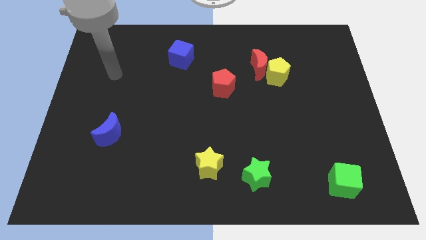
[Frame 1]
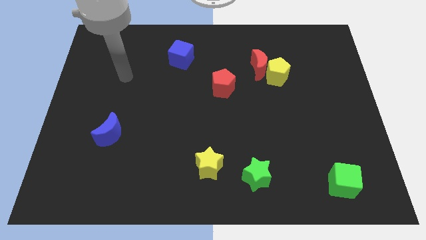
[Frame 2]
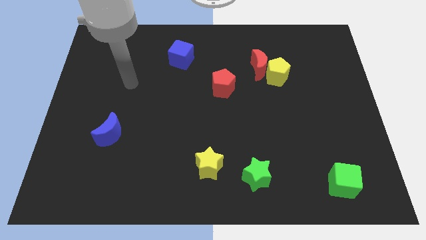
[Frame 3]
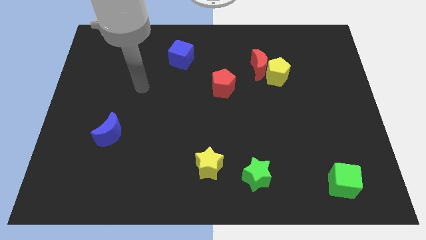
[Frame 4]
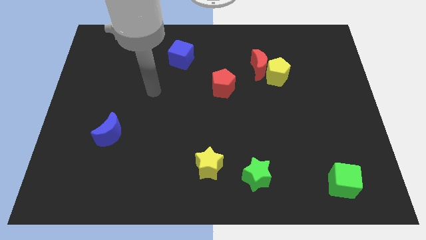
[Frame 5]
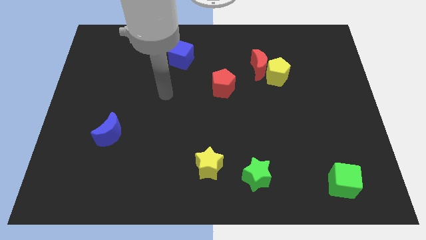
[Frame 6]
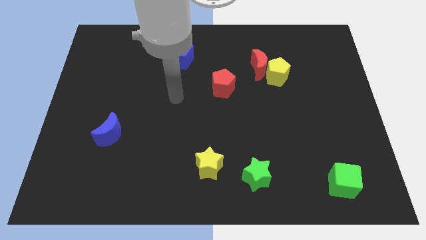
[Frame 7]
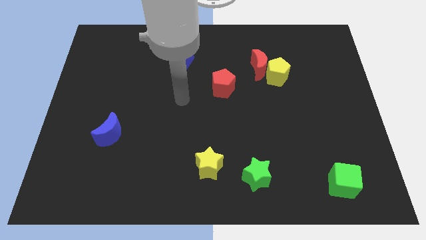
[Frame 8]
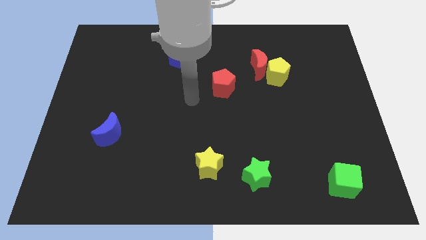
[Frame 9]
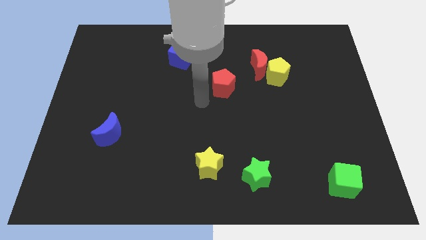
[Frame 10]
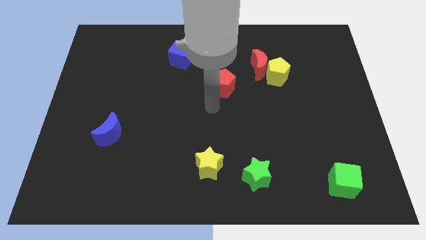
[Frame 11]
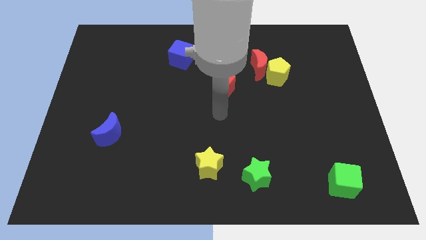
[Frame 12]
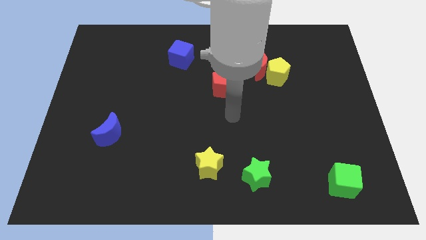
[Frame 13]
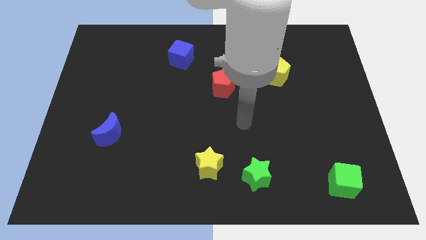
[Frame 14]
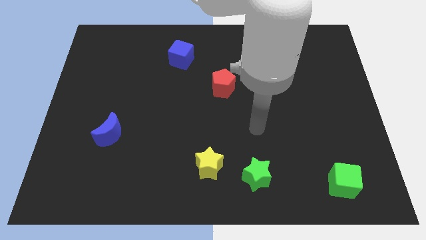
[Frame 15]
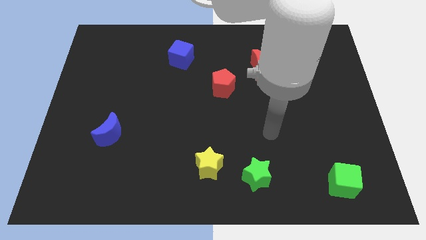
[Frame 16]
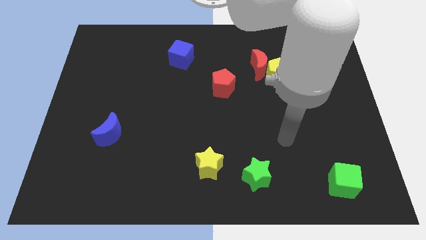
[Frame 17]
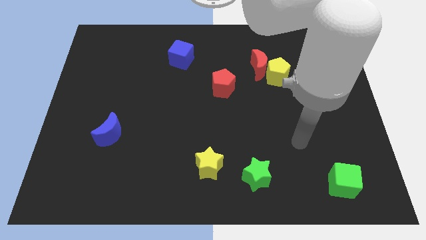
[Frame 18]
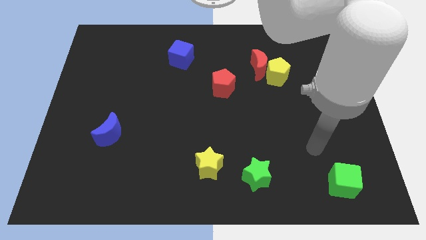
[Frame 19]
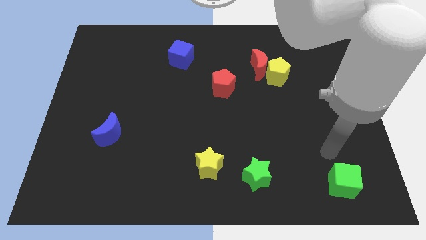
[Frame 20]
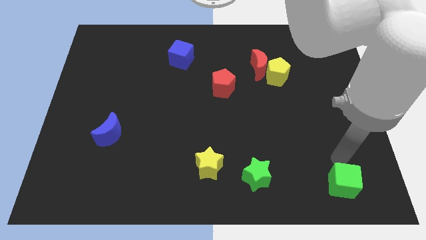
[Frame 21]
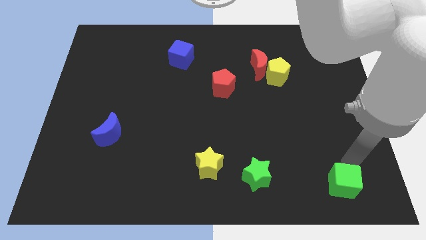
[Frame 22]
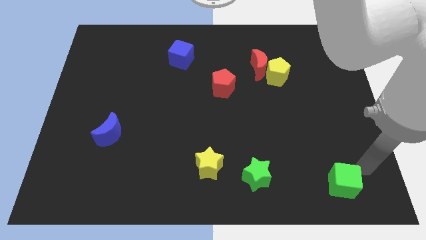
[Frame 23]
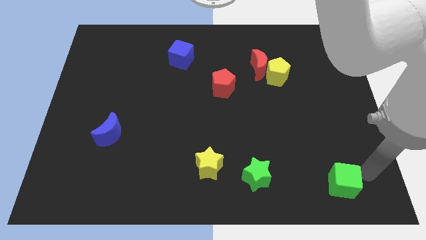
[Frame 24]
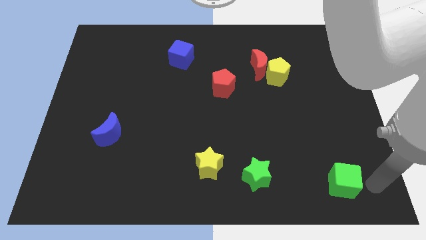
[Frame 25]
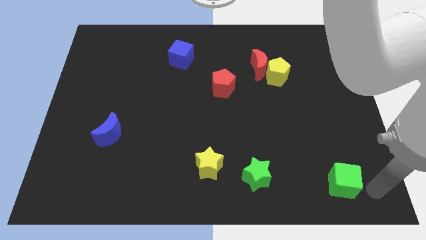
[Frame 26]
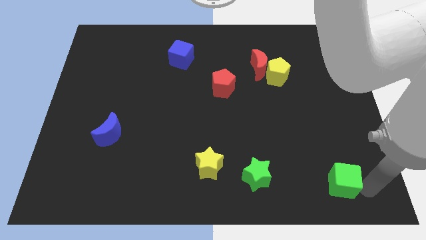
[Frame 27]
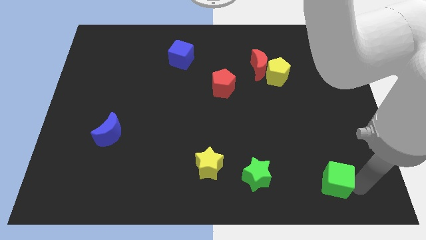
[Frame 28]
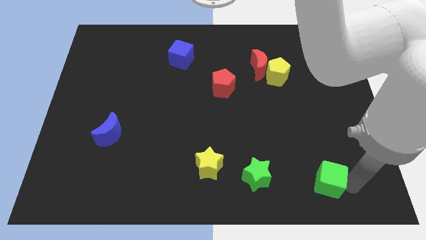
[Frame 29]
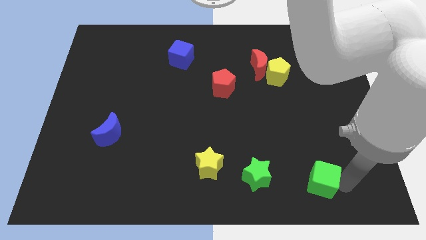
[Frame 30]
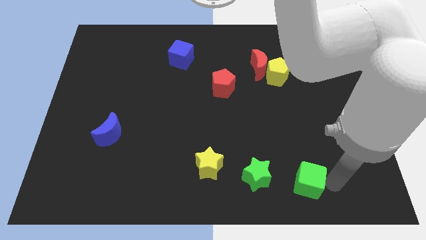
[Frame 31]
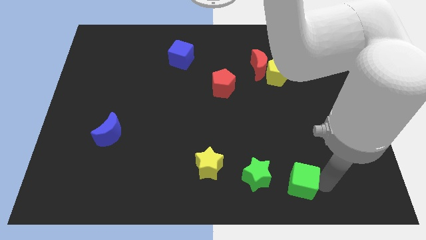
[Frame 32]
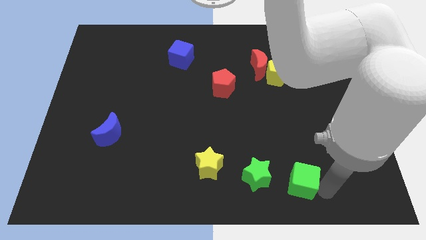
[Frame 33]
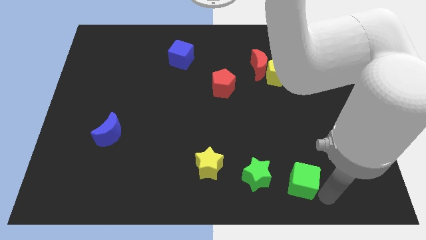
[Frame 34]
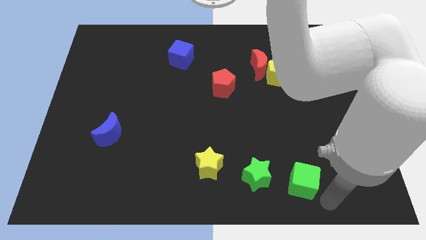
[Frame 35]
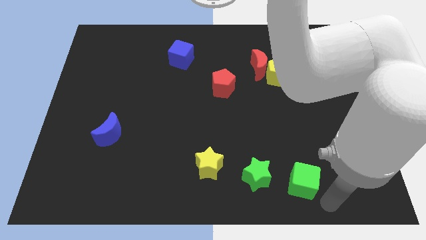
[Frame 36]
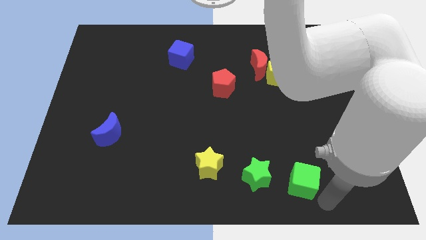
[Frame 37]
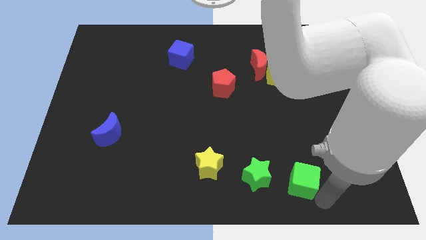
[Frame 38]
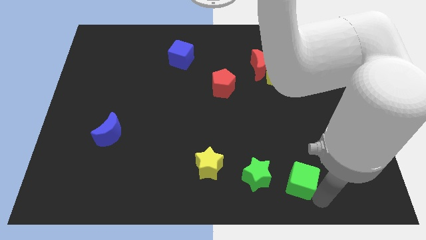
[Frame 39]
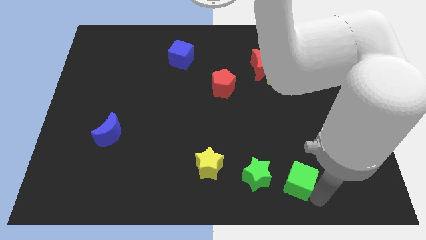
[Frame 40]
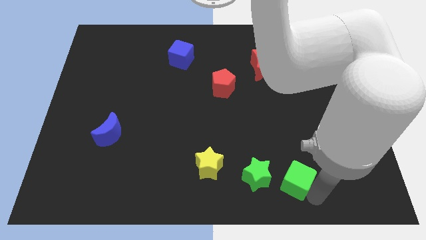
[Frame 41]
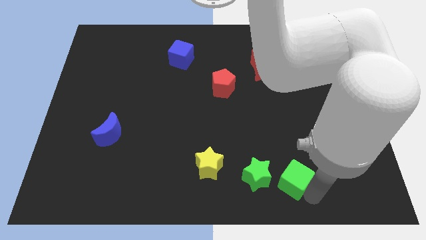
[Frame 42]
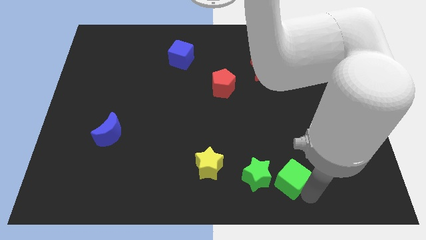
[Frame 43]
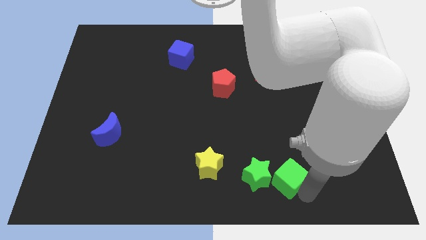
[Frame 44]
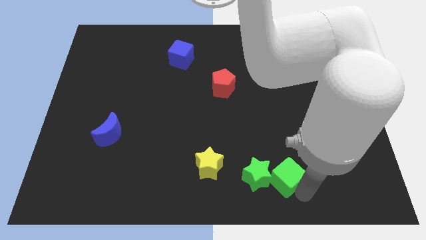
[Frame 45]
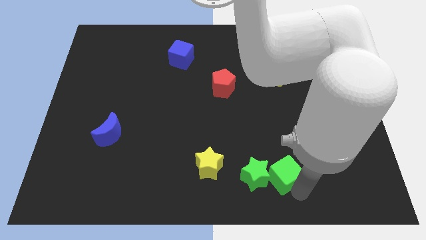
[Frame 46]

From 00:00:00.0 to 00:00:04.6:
move the green cube to the right side of the yellow star

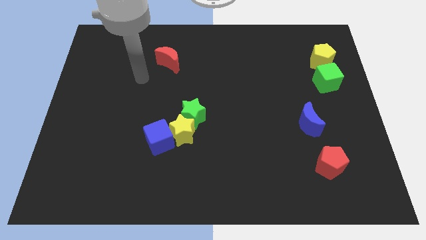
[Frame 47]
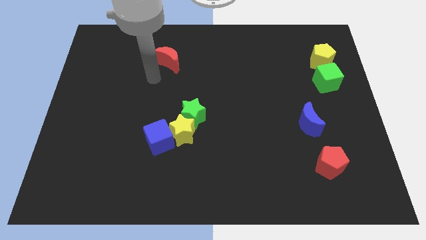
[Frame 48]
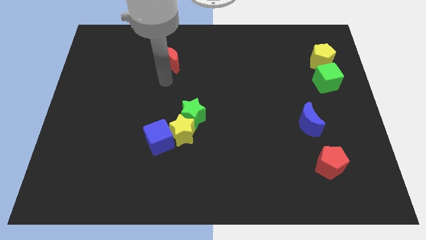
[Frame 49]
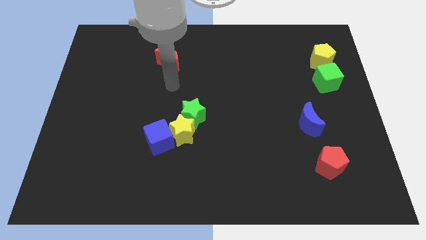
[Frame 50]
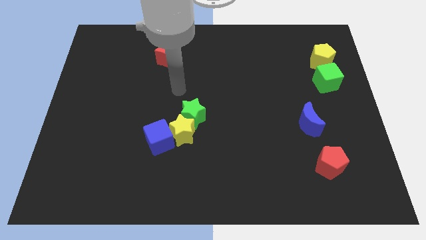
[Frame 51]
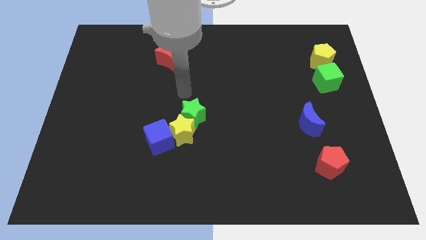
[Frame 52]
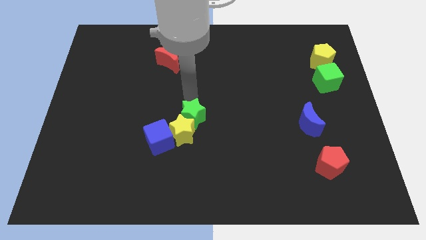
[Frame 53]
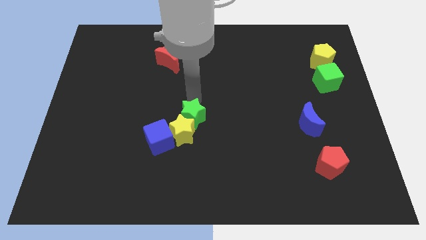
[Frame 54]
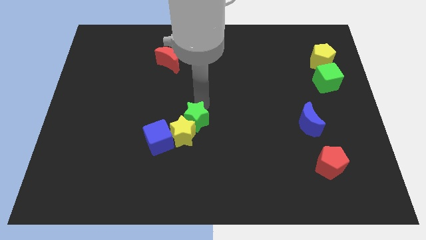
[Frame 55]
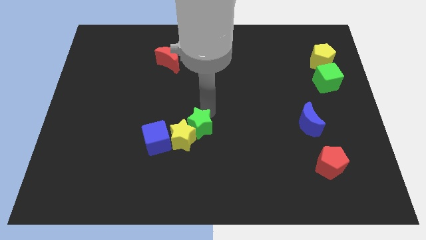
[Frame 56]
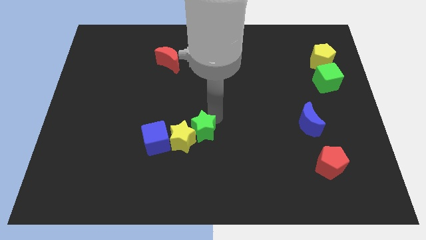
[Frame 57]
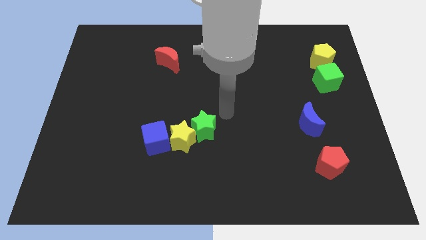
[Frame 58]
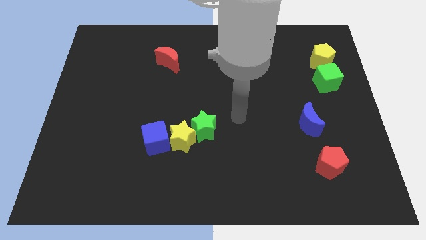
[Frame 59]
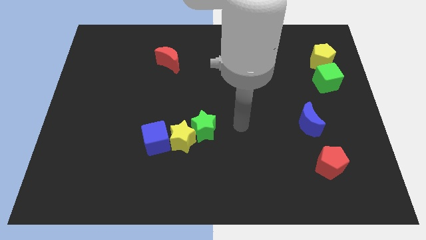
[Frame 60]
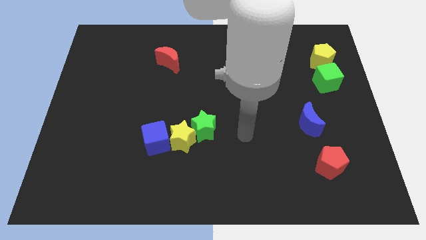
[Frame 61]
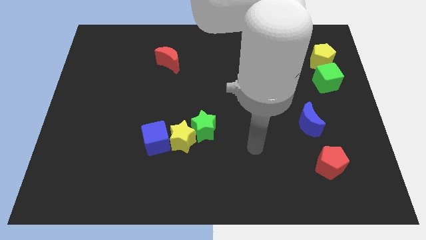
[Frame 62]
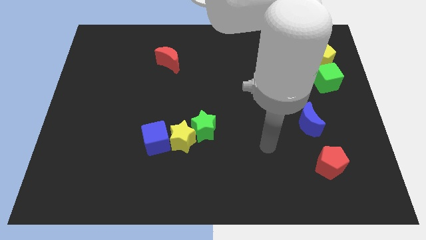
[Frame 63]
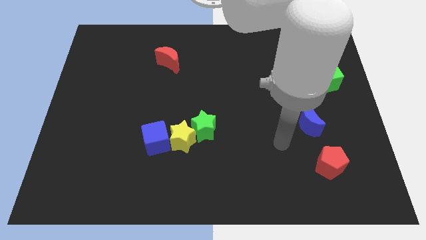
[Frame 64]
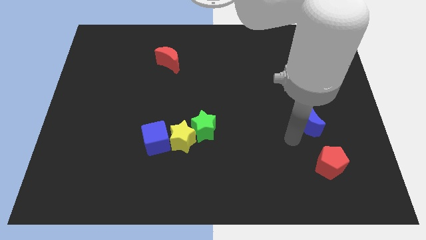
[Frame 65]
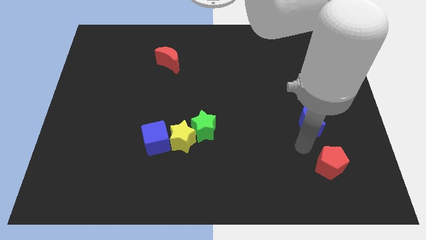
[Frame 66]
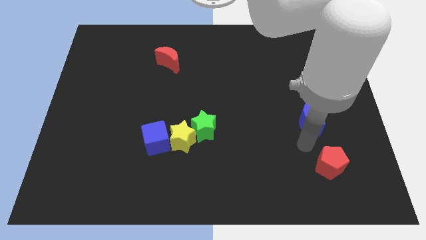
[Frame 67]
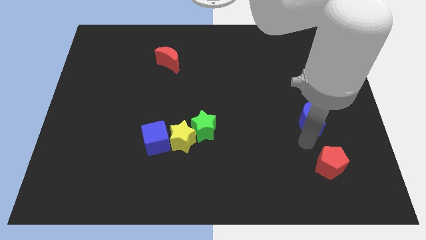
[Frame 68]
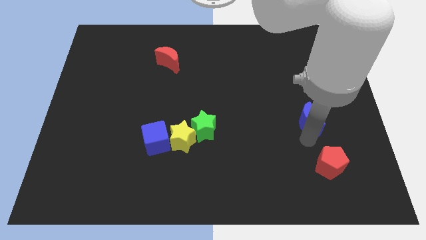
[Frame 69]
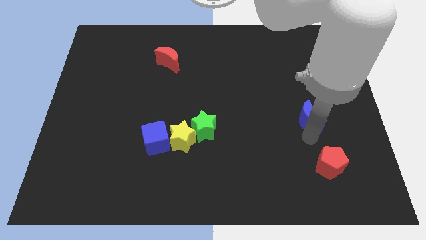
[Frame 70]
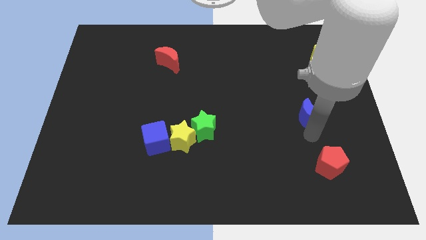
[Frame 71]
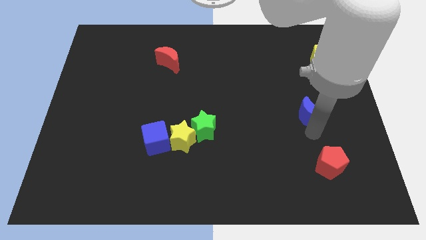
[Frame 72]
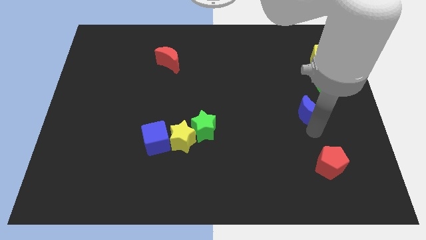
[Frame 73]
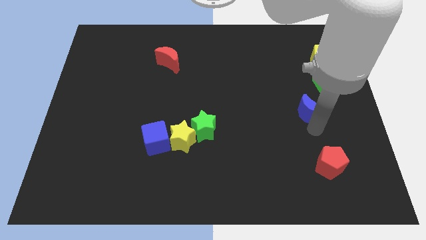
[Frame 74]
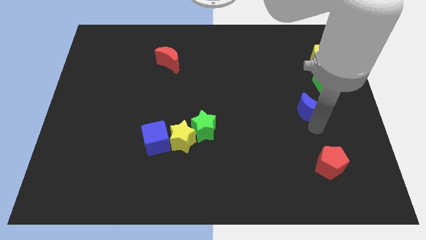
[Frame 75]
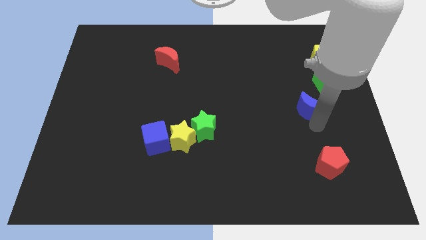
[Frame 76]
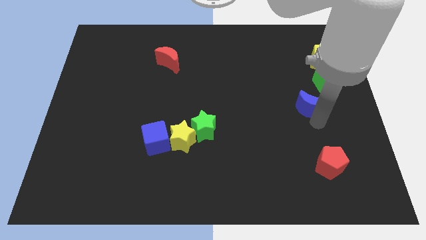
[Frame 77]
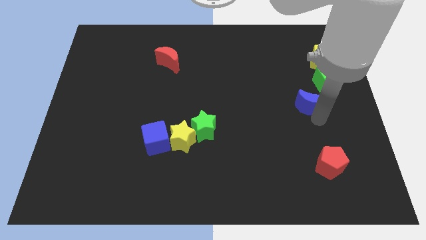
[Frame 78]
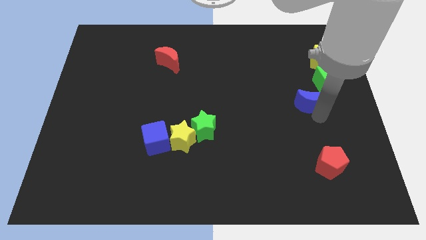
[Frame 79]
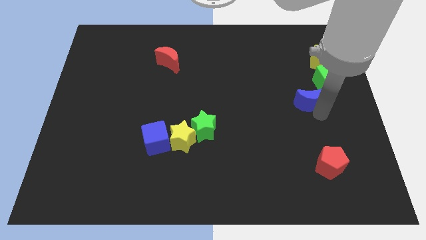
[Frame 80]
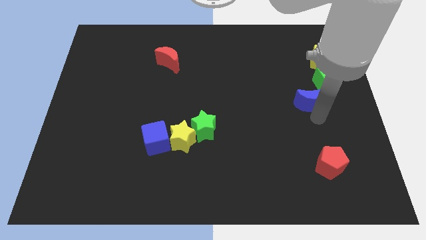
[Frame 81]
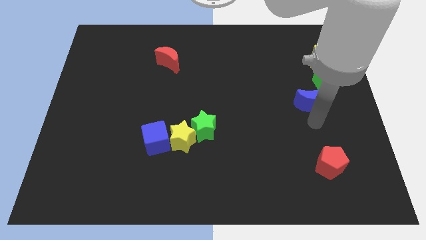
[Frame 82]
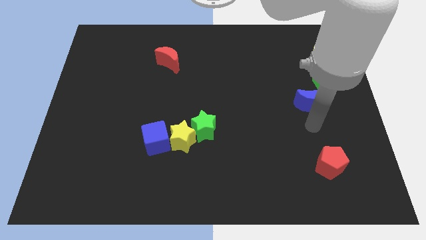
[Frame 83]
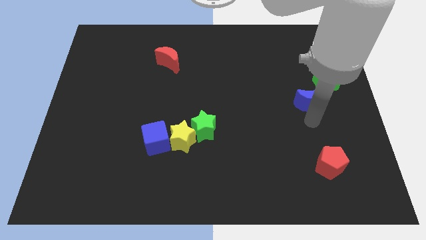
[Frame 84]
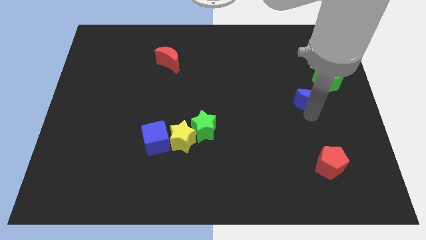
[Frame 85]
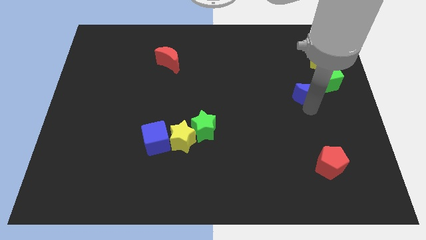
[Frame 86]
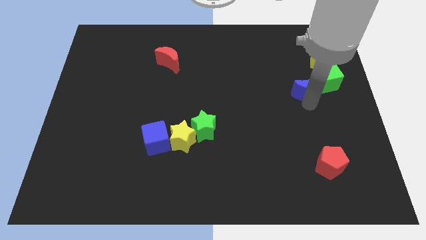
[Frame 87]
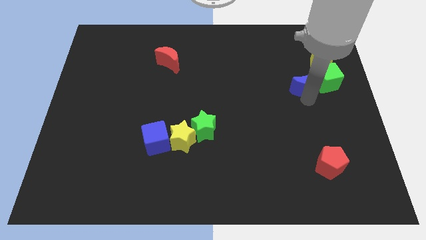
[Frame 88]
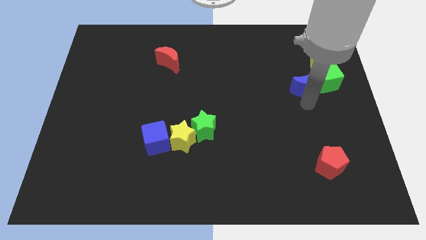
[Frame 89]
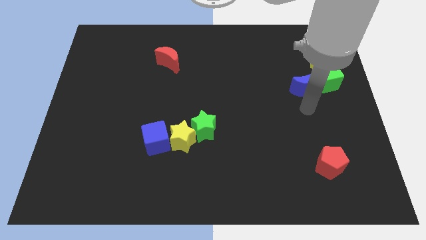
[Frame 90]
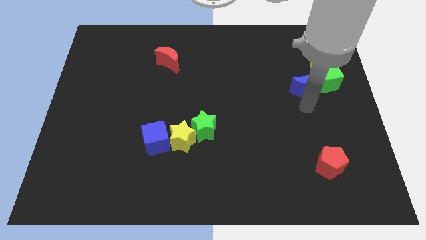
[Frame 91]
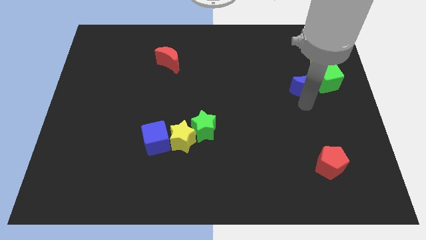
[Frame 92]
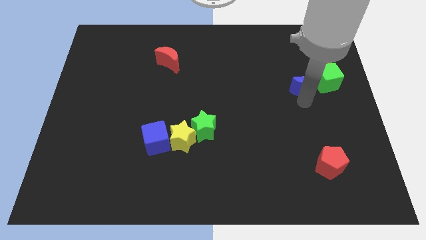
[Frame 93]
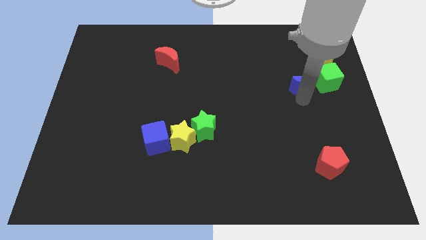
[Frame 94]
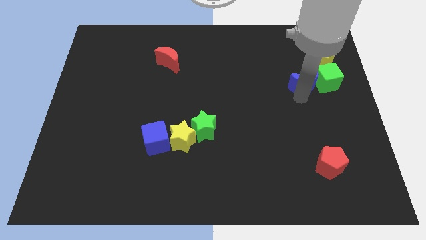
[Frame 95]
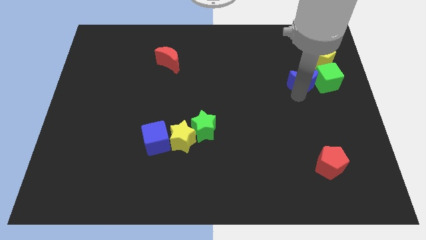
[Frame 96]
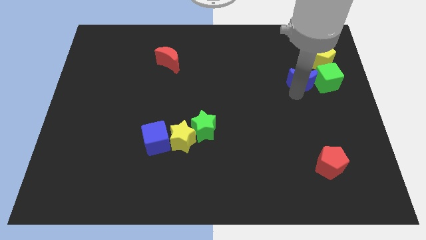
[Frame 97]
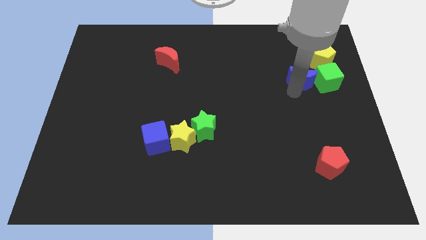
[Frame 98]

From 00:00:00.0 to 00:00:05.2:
put the blue moon to the top left side of the green cube
